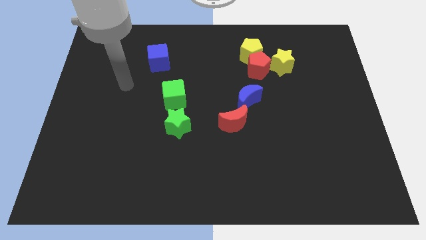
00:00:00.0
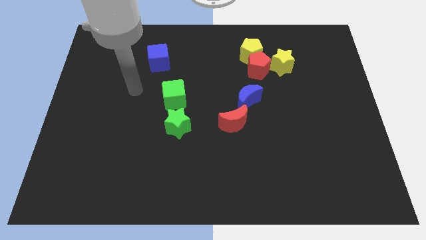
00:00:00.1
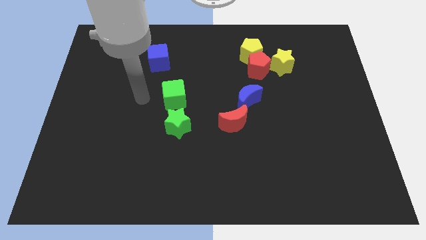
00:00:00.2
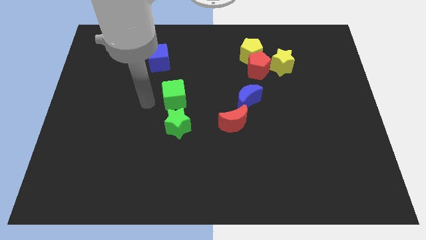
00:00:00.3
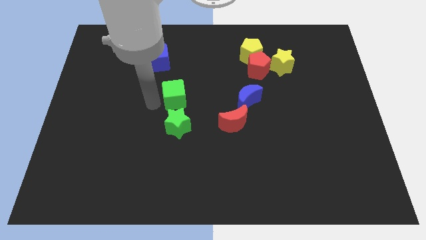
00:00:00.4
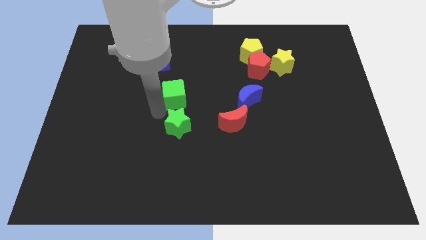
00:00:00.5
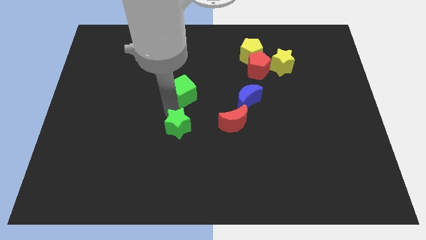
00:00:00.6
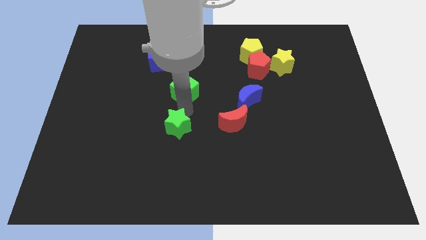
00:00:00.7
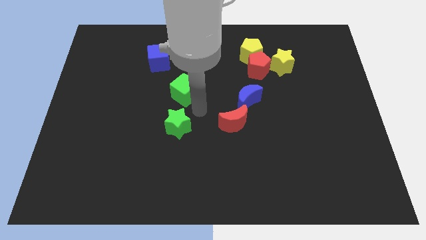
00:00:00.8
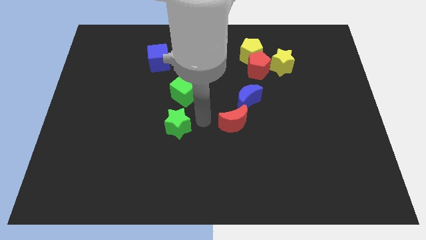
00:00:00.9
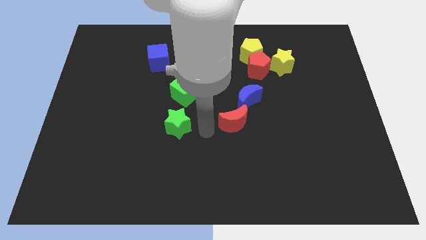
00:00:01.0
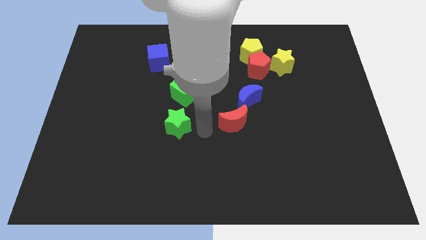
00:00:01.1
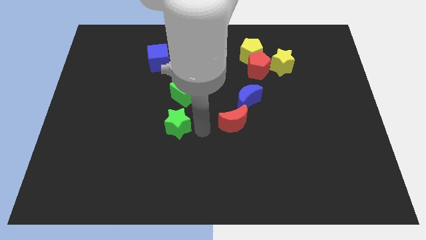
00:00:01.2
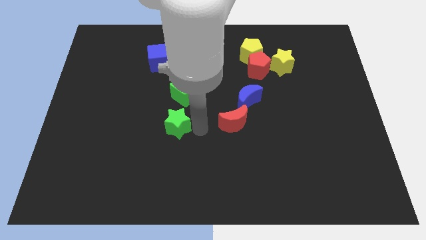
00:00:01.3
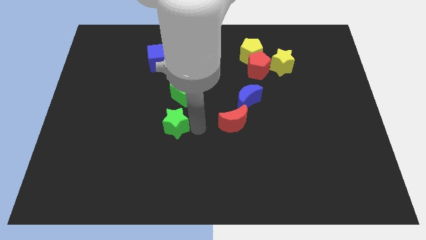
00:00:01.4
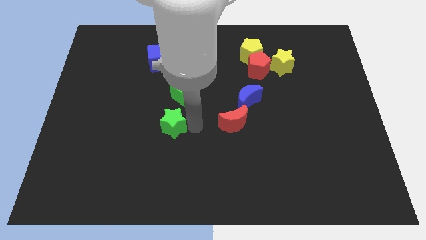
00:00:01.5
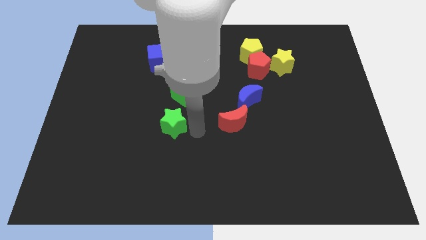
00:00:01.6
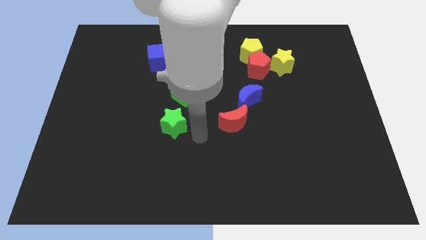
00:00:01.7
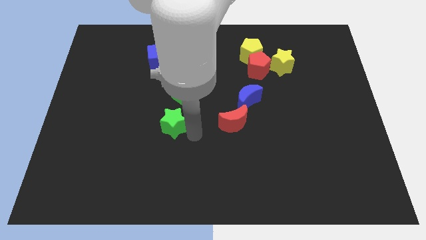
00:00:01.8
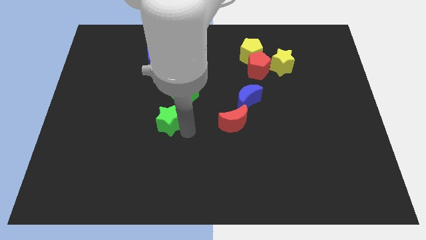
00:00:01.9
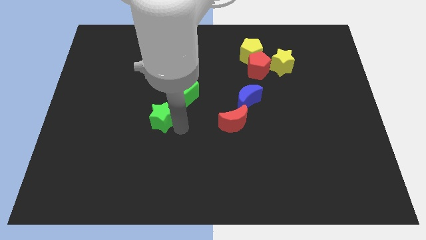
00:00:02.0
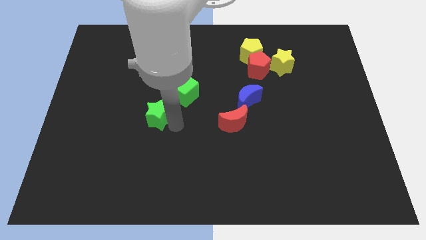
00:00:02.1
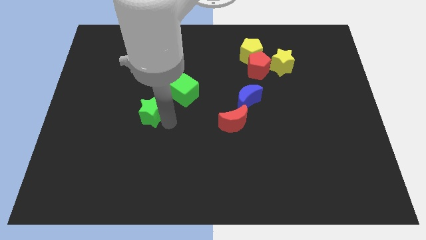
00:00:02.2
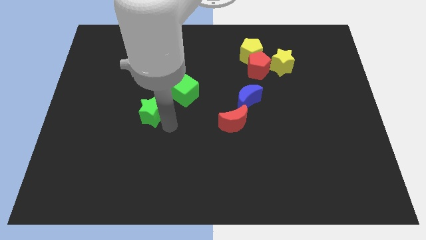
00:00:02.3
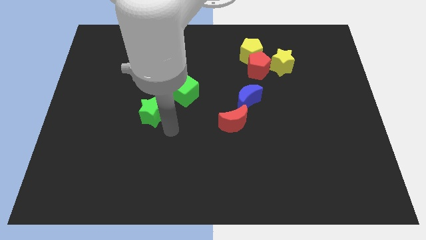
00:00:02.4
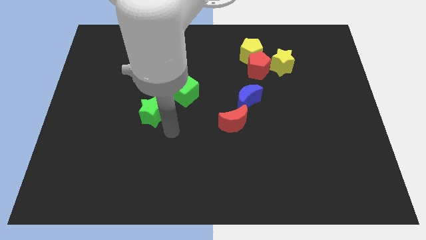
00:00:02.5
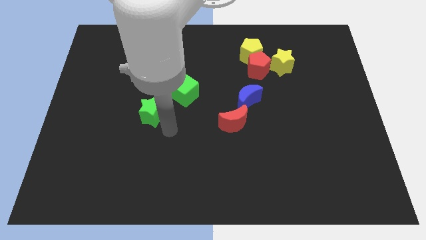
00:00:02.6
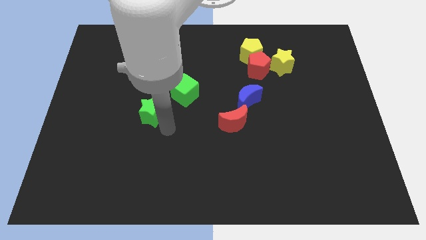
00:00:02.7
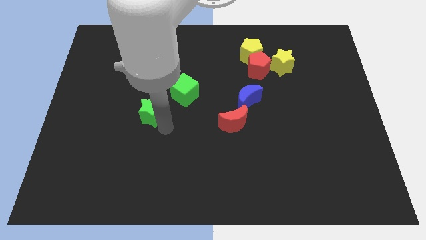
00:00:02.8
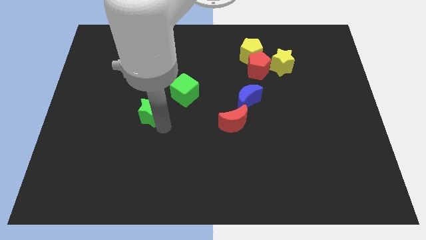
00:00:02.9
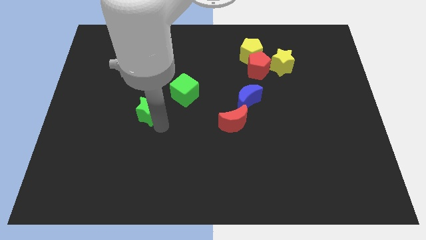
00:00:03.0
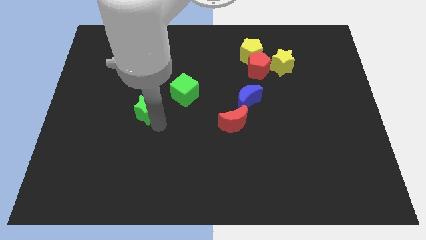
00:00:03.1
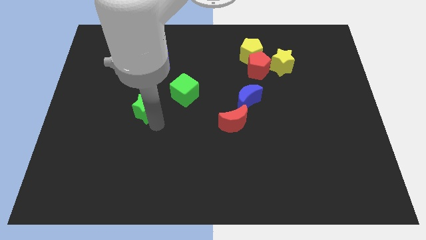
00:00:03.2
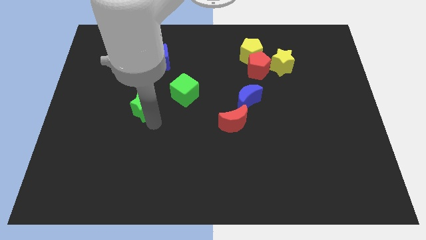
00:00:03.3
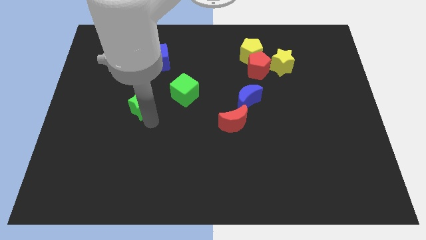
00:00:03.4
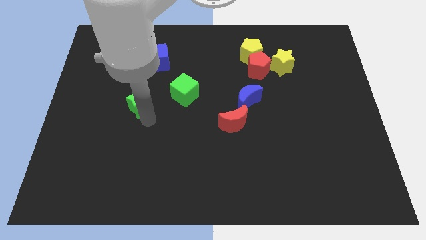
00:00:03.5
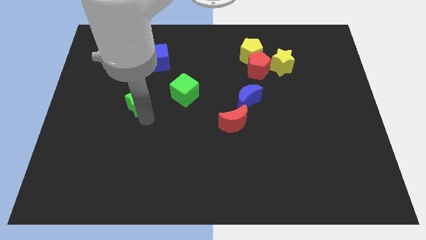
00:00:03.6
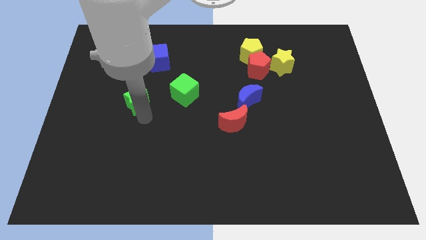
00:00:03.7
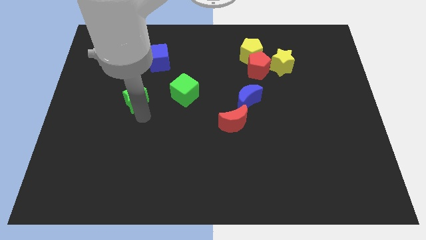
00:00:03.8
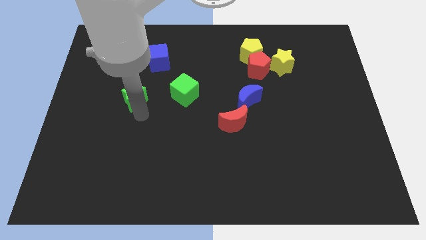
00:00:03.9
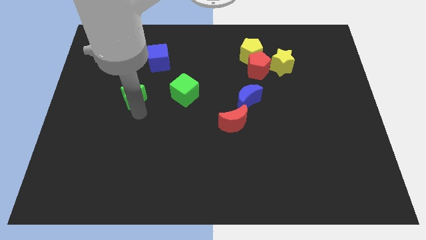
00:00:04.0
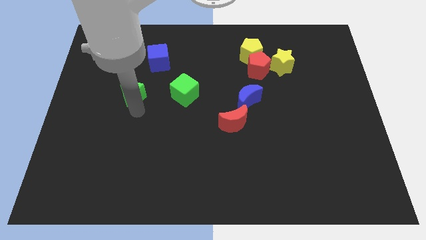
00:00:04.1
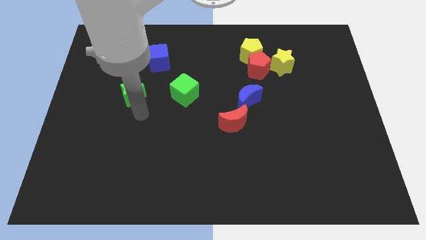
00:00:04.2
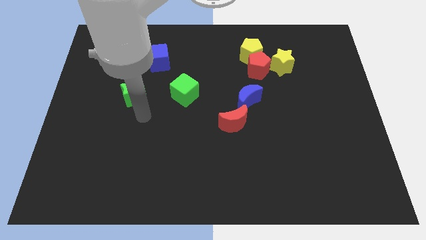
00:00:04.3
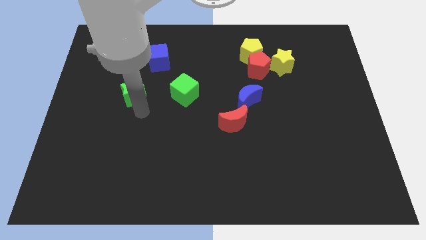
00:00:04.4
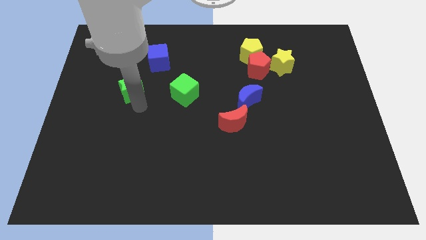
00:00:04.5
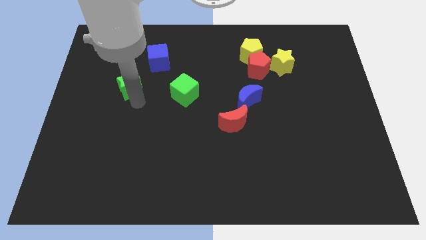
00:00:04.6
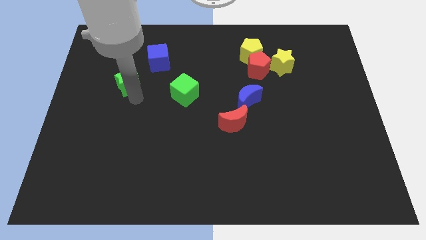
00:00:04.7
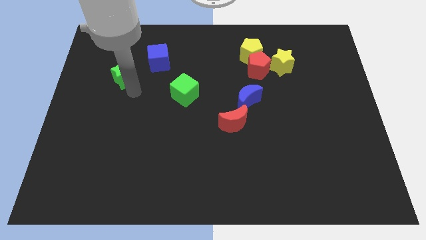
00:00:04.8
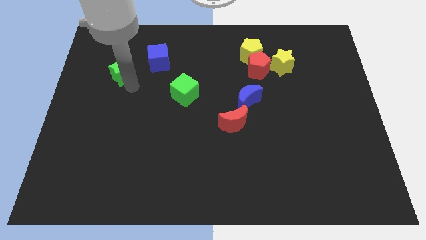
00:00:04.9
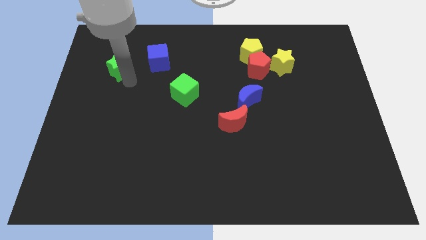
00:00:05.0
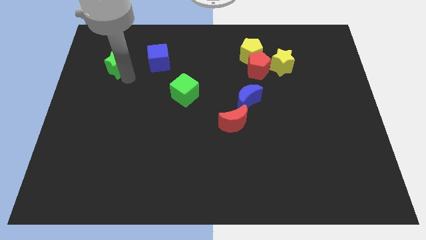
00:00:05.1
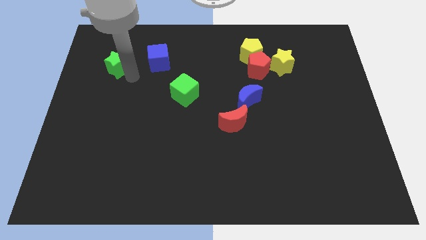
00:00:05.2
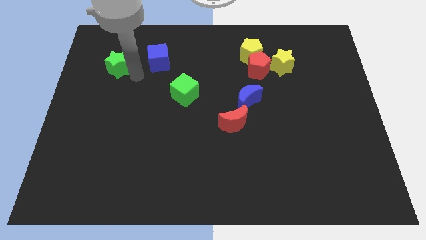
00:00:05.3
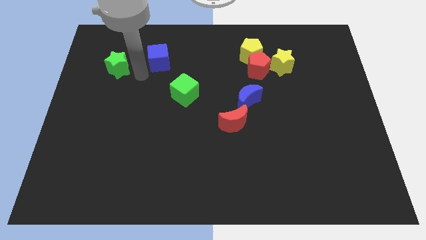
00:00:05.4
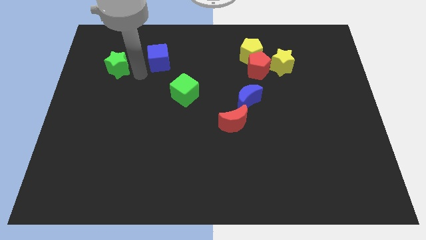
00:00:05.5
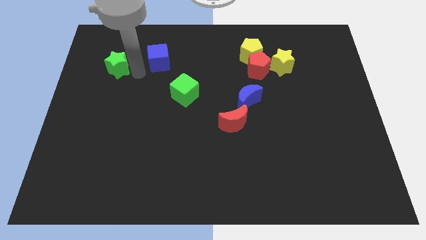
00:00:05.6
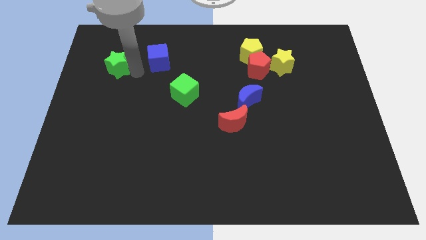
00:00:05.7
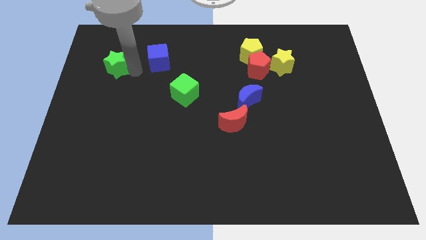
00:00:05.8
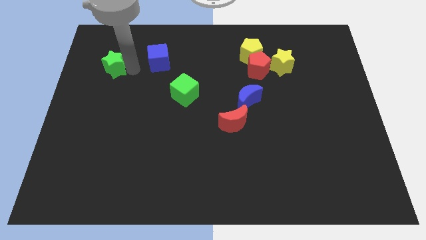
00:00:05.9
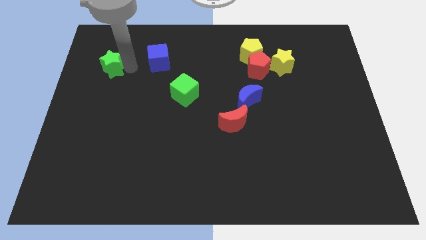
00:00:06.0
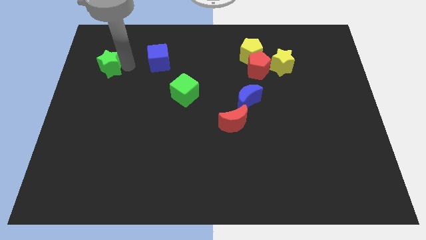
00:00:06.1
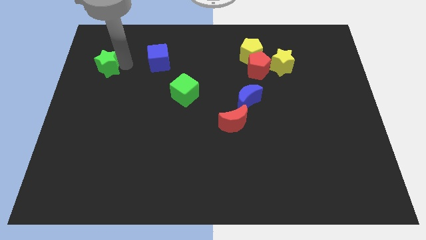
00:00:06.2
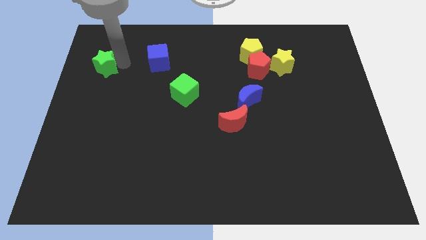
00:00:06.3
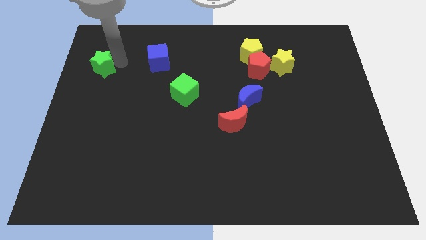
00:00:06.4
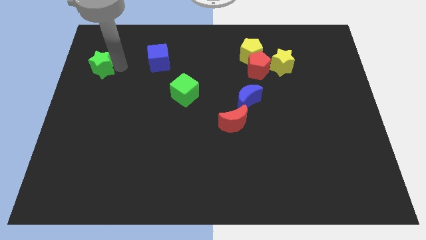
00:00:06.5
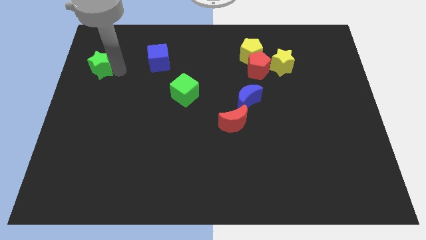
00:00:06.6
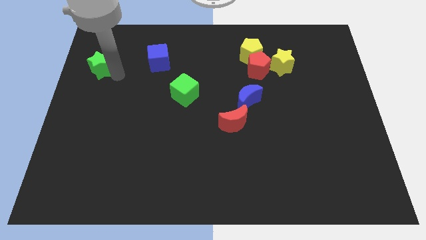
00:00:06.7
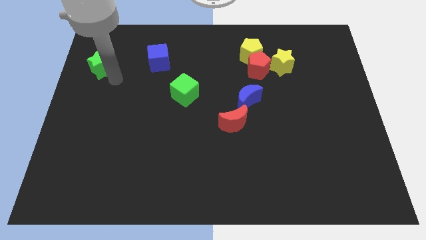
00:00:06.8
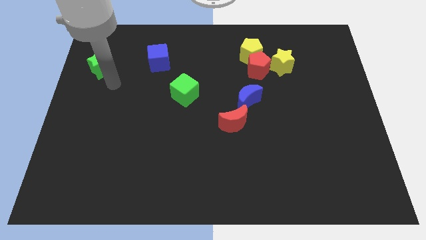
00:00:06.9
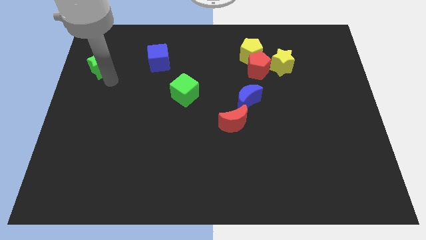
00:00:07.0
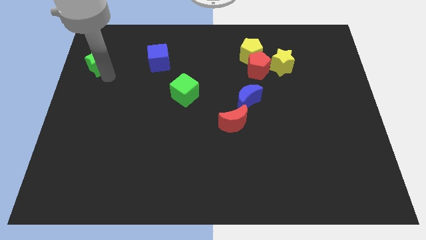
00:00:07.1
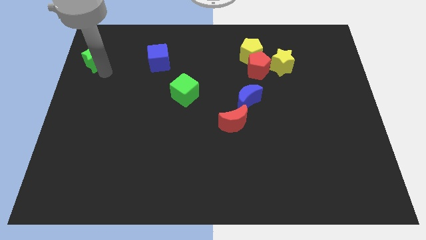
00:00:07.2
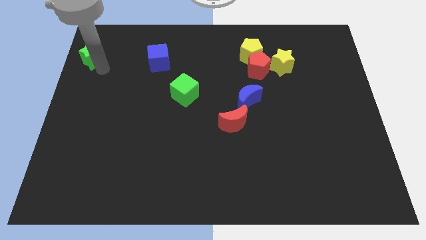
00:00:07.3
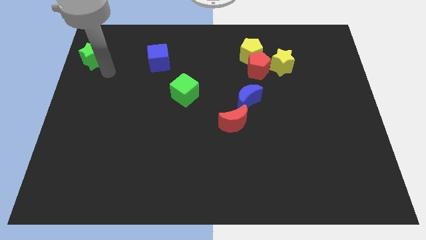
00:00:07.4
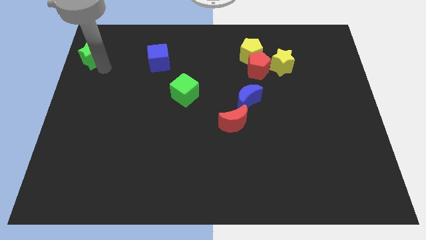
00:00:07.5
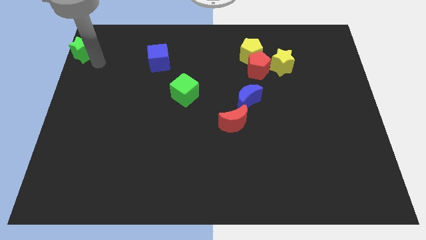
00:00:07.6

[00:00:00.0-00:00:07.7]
put the green star to the upper left corner
